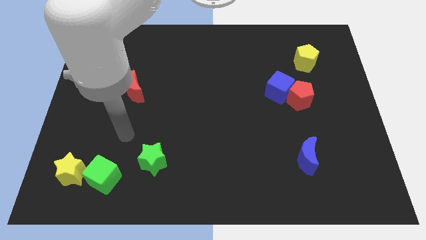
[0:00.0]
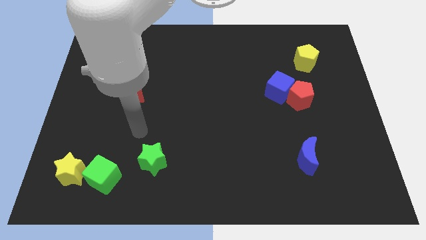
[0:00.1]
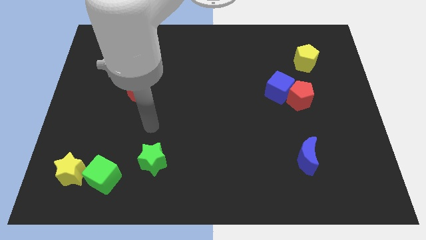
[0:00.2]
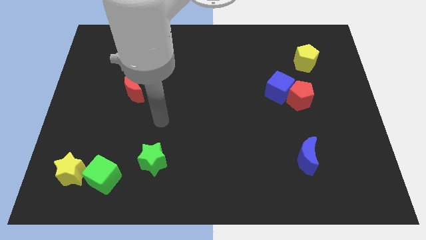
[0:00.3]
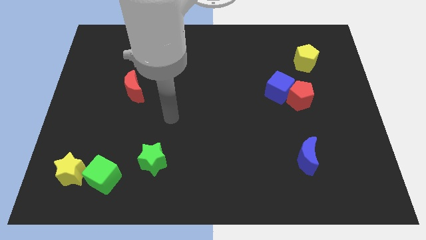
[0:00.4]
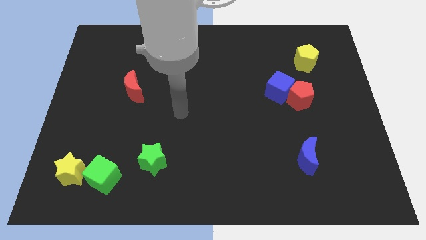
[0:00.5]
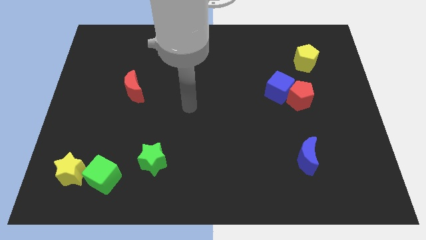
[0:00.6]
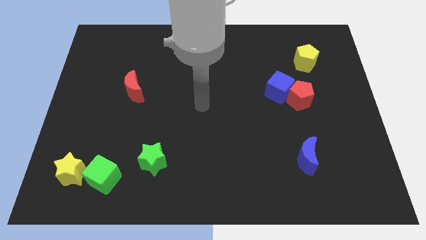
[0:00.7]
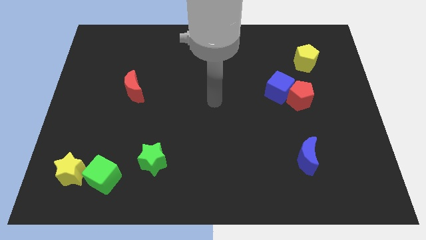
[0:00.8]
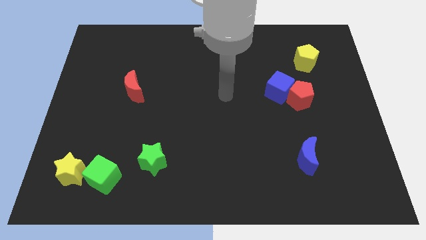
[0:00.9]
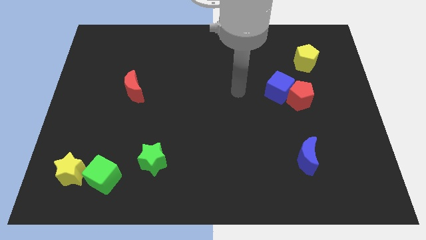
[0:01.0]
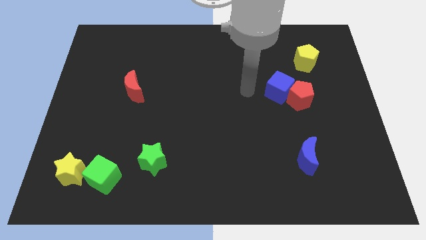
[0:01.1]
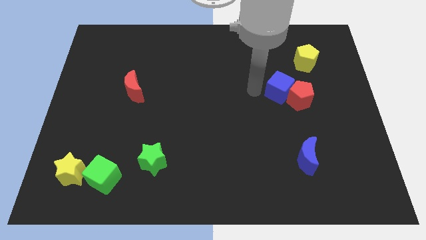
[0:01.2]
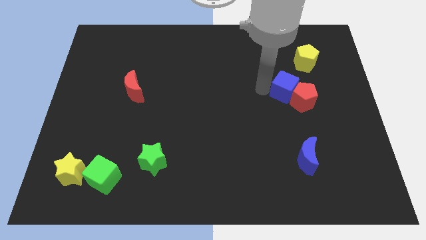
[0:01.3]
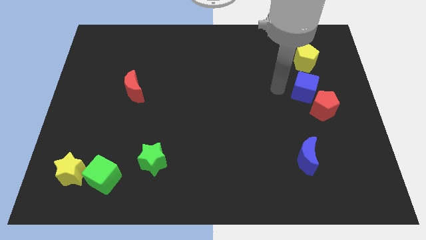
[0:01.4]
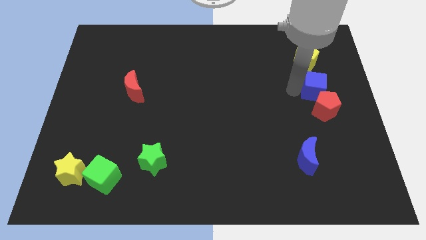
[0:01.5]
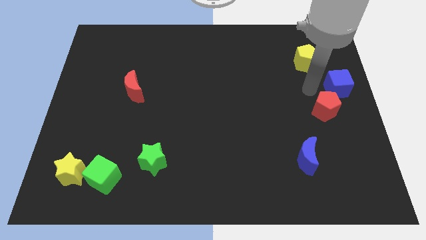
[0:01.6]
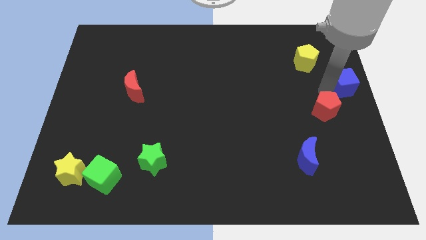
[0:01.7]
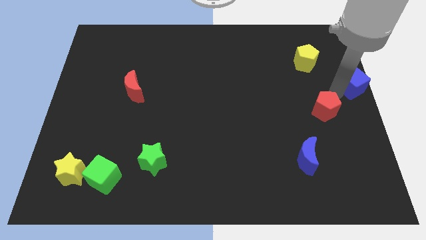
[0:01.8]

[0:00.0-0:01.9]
pull the red pentagon apart from the blue cube

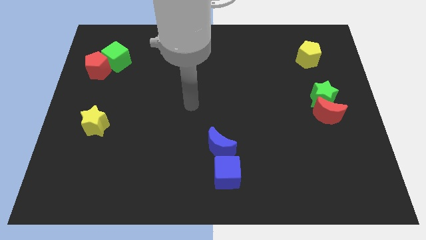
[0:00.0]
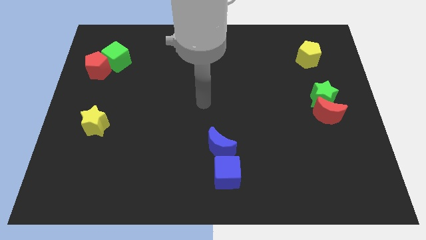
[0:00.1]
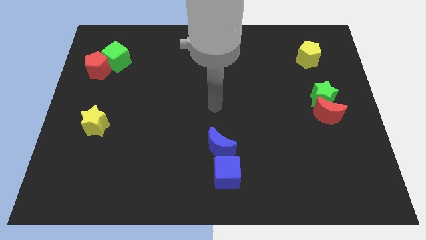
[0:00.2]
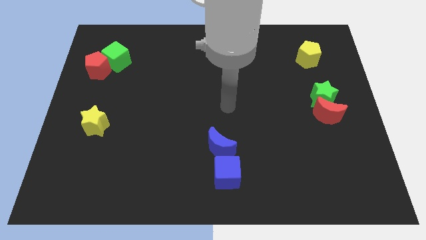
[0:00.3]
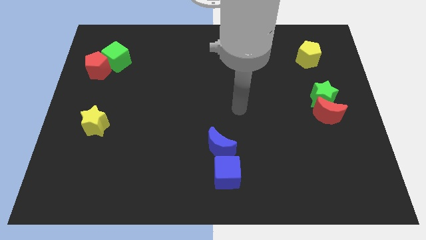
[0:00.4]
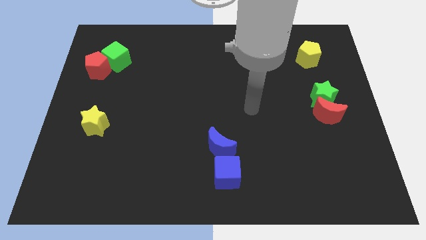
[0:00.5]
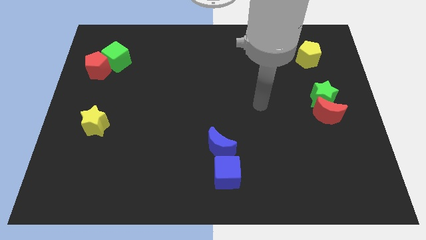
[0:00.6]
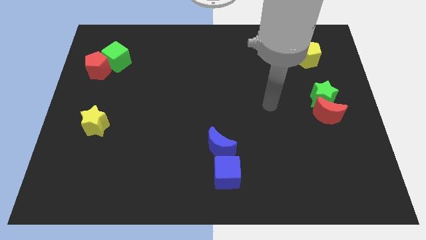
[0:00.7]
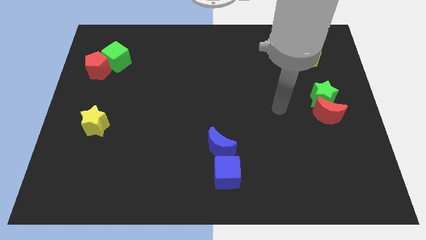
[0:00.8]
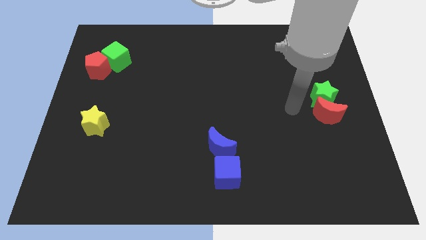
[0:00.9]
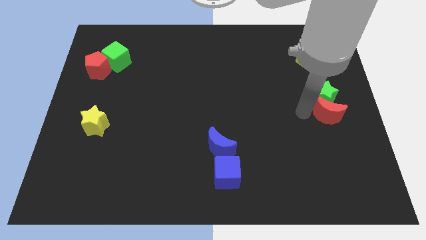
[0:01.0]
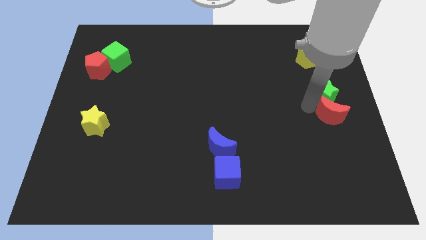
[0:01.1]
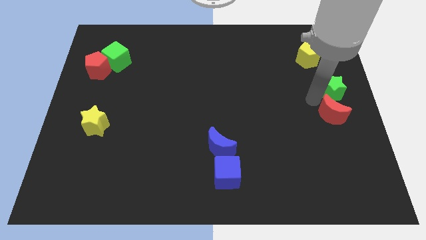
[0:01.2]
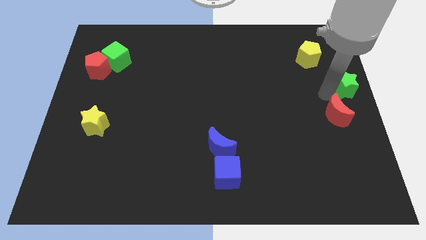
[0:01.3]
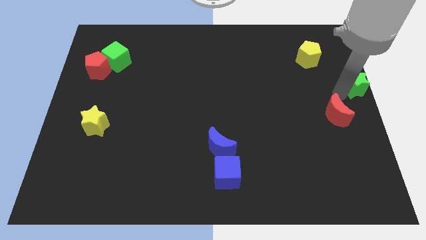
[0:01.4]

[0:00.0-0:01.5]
separate the red moon from the green star

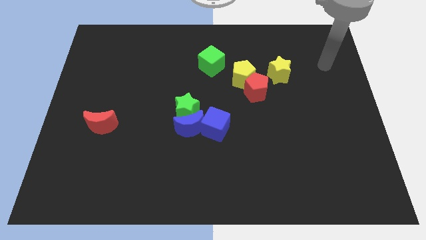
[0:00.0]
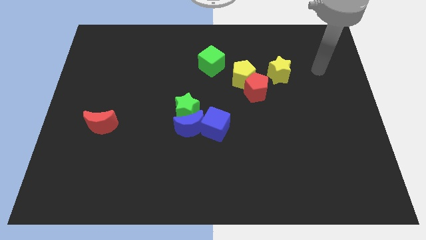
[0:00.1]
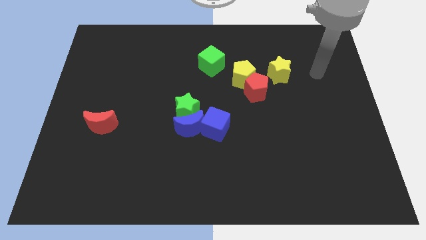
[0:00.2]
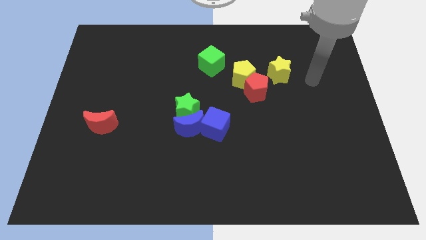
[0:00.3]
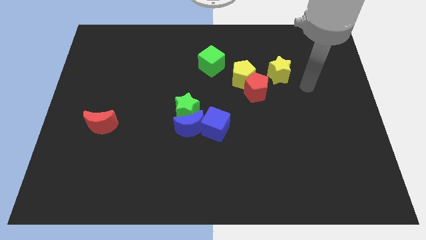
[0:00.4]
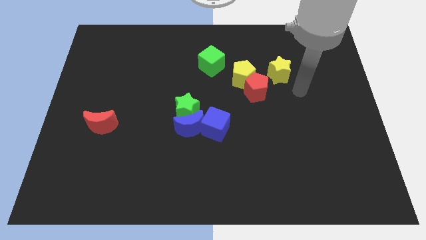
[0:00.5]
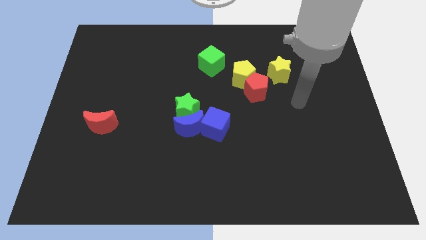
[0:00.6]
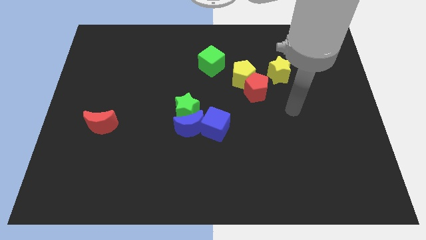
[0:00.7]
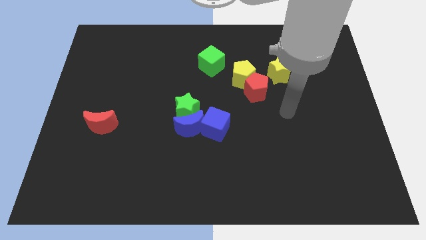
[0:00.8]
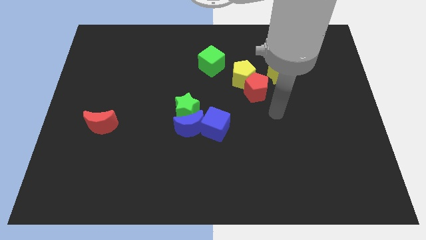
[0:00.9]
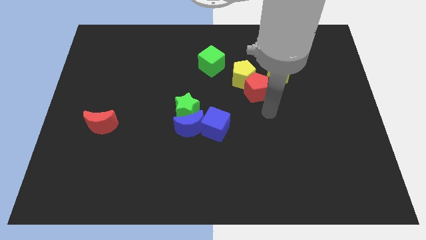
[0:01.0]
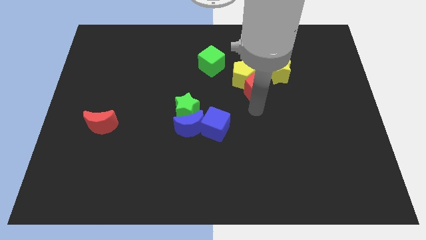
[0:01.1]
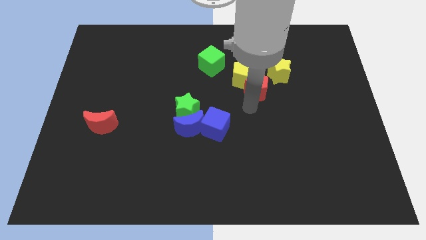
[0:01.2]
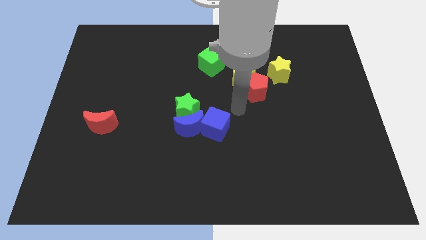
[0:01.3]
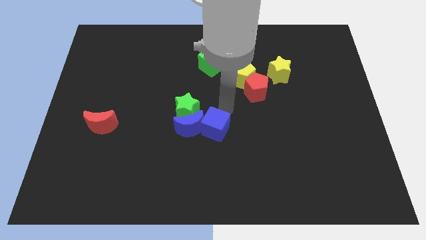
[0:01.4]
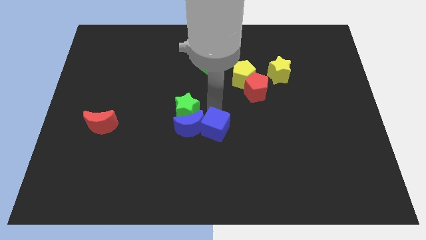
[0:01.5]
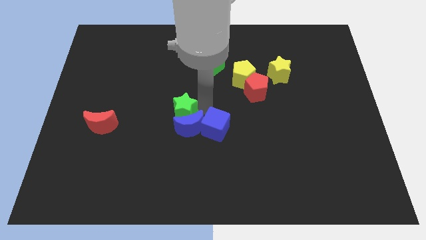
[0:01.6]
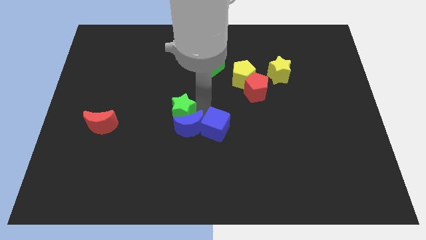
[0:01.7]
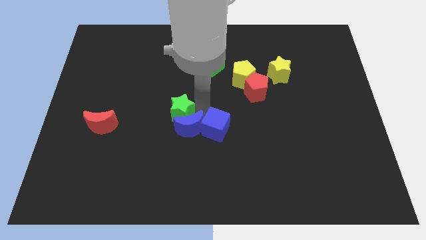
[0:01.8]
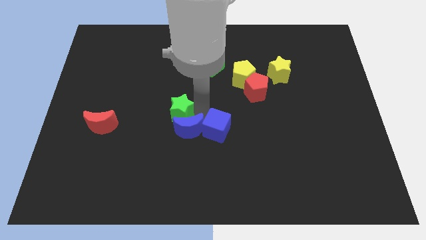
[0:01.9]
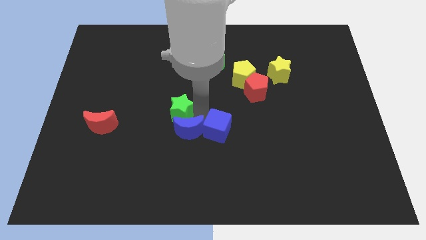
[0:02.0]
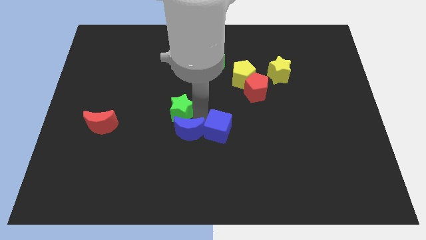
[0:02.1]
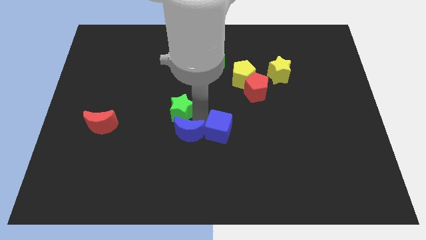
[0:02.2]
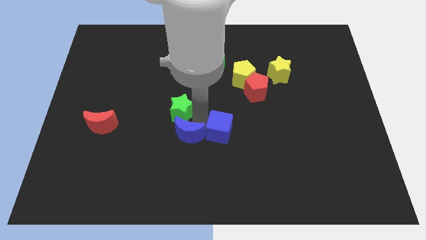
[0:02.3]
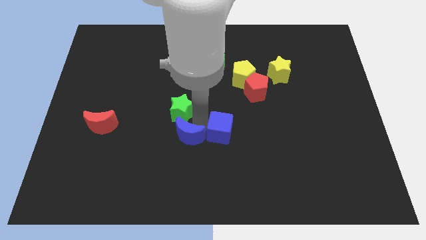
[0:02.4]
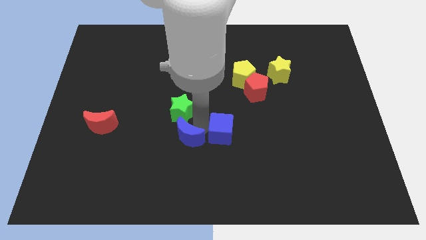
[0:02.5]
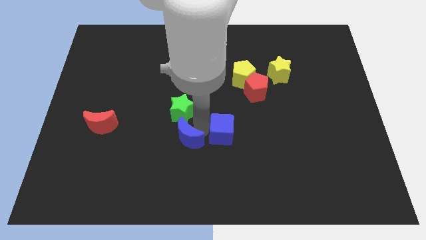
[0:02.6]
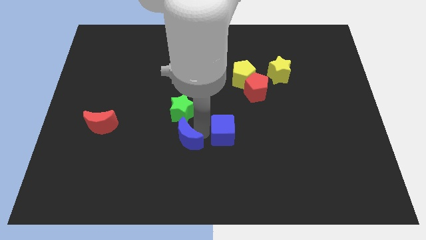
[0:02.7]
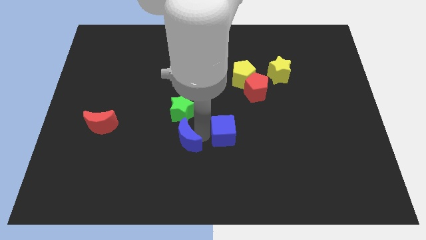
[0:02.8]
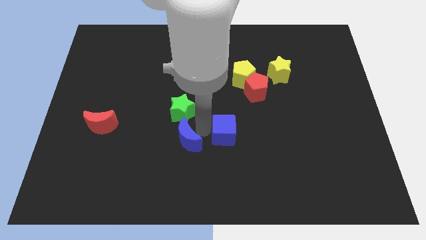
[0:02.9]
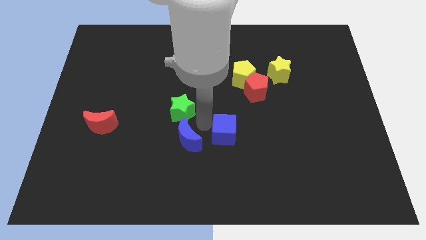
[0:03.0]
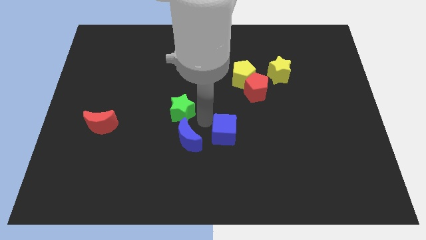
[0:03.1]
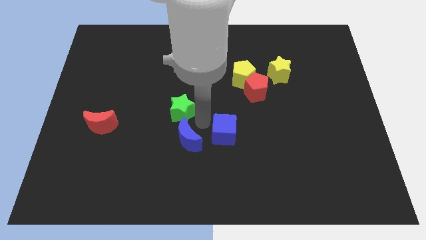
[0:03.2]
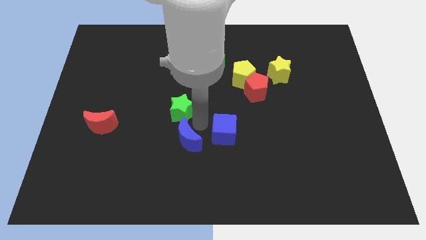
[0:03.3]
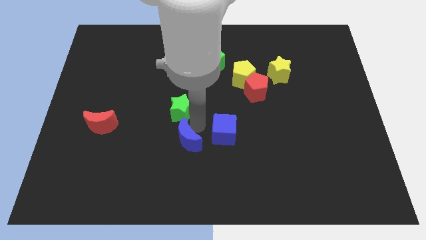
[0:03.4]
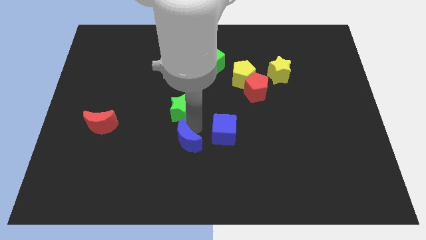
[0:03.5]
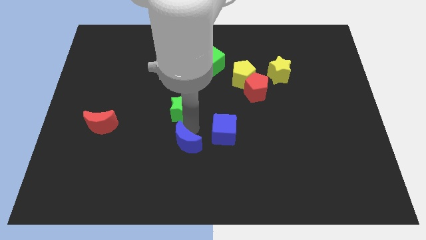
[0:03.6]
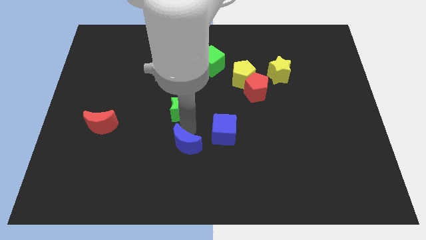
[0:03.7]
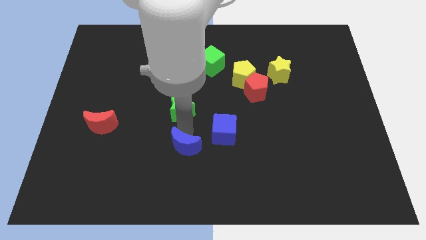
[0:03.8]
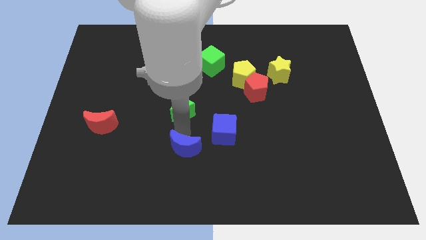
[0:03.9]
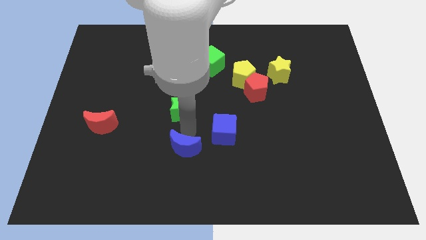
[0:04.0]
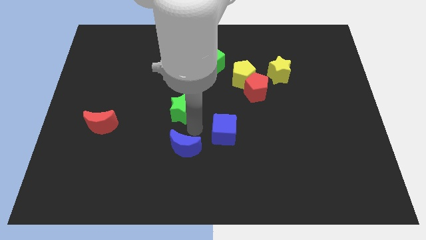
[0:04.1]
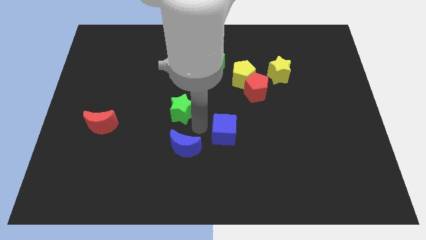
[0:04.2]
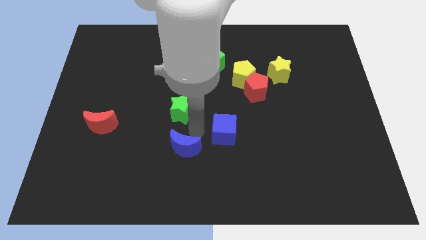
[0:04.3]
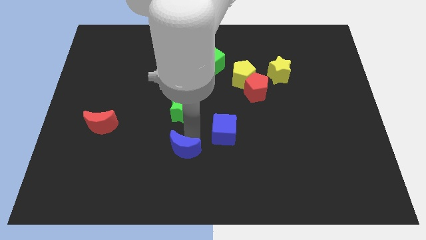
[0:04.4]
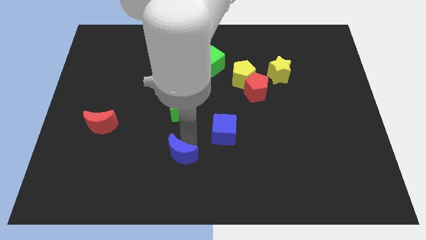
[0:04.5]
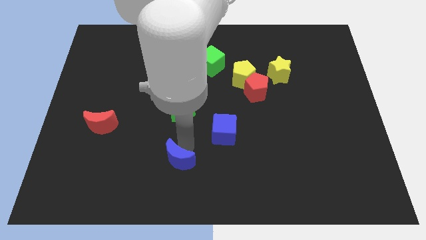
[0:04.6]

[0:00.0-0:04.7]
pull the blue moon apart from the green star and blue cube

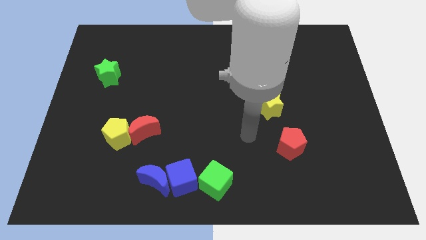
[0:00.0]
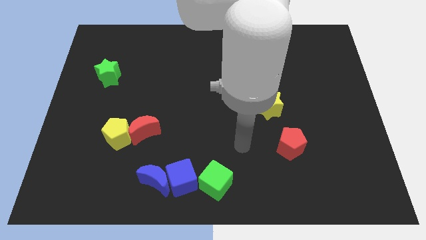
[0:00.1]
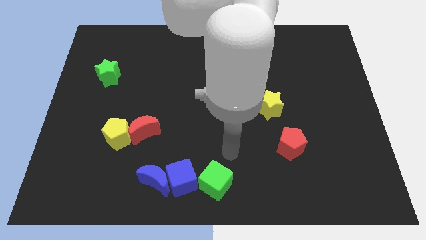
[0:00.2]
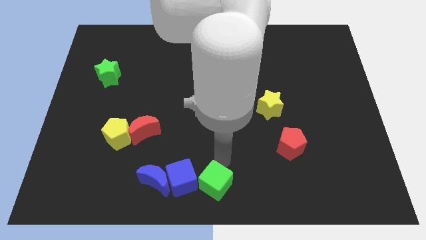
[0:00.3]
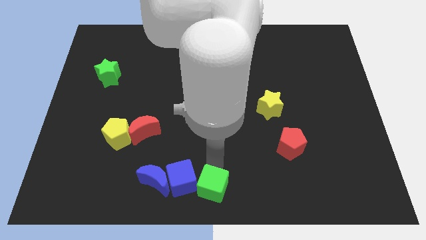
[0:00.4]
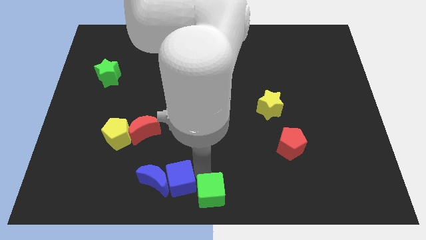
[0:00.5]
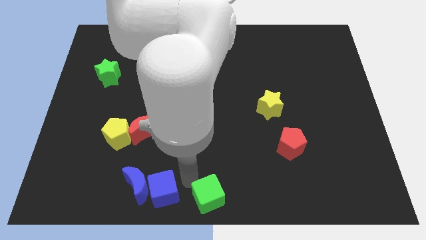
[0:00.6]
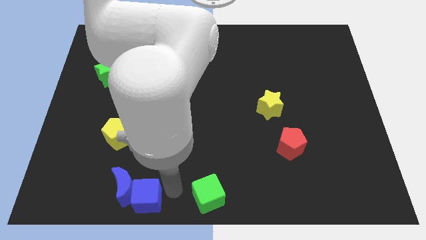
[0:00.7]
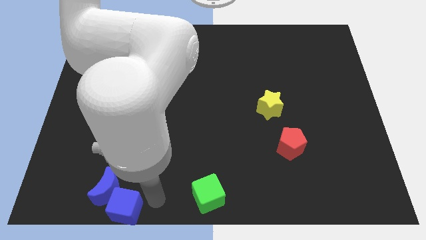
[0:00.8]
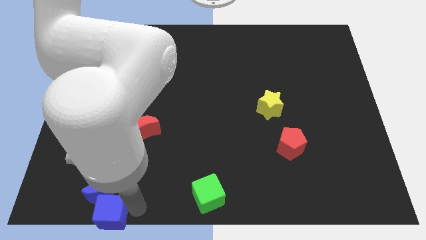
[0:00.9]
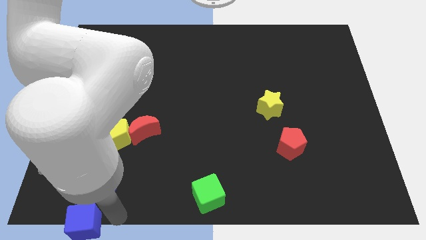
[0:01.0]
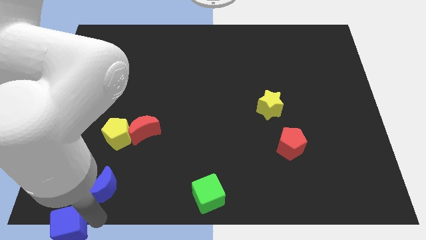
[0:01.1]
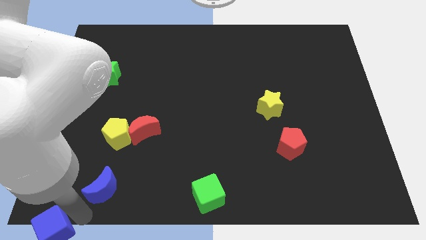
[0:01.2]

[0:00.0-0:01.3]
move the blue moon away from the blue cube

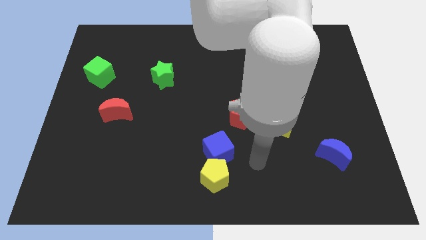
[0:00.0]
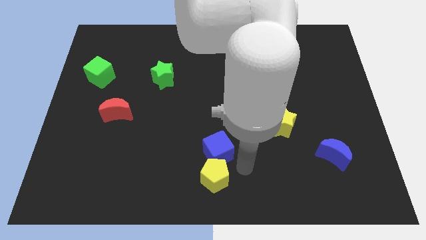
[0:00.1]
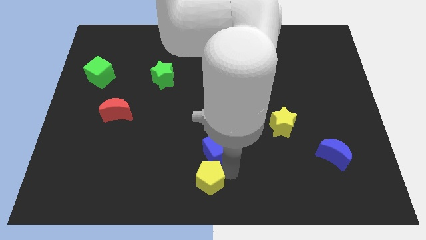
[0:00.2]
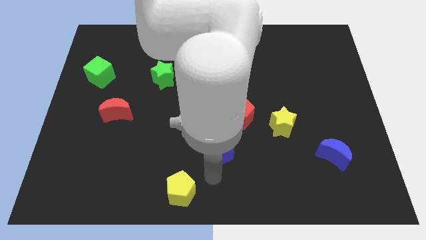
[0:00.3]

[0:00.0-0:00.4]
separate the blue cube from the yellow pentagon
